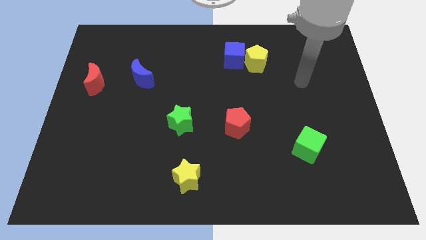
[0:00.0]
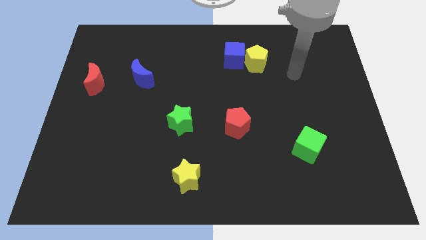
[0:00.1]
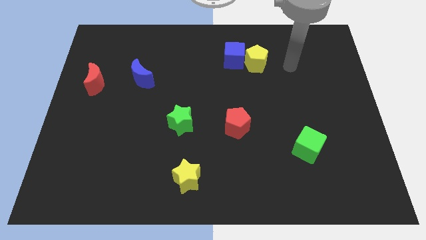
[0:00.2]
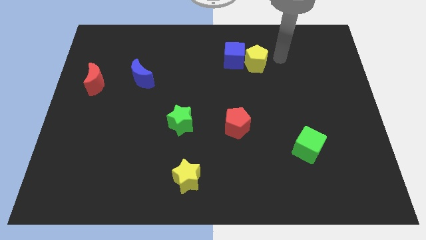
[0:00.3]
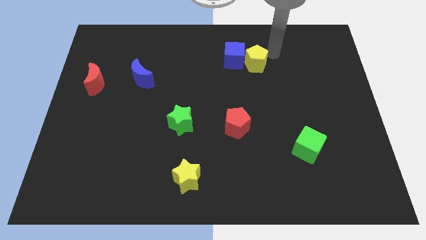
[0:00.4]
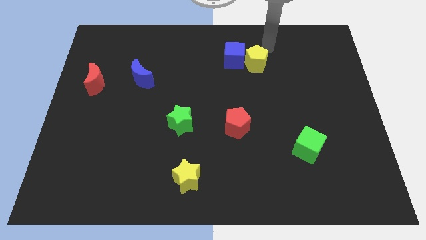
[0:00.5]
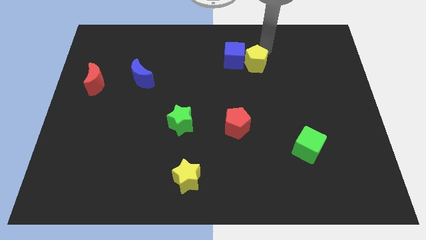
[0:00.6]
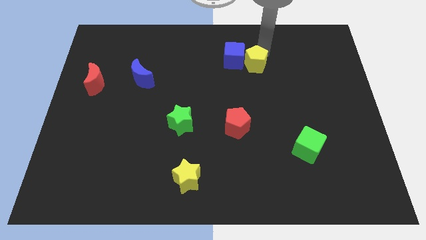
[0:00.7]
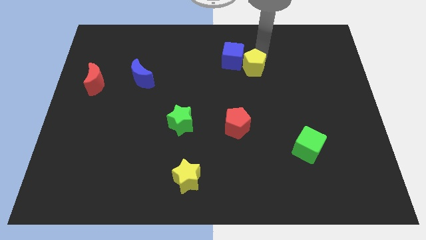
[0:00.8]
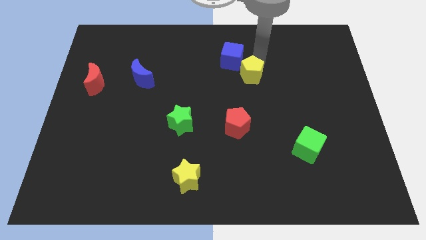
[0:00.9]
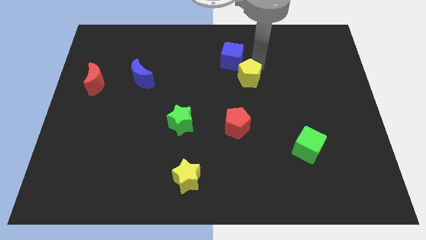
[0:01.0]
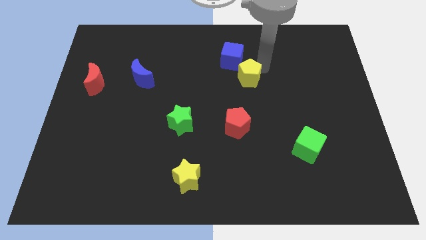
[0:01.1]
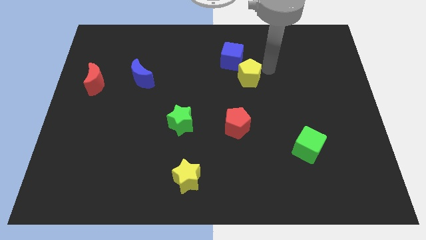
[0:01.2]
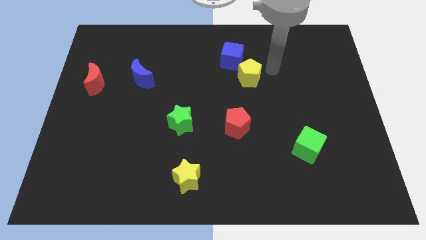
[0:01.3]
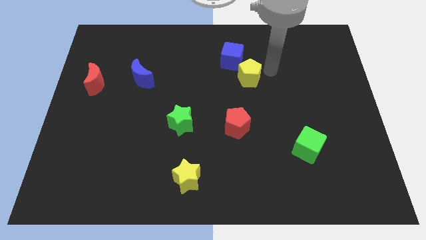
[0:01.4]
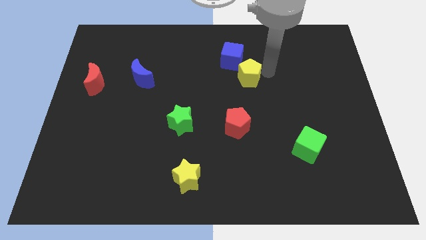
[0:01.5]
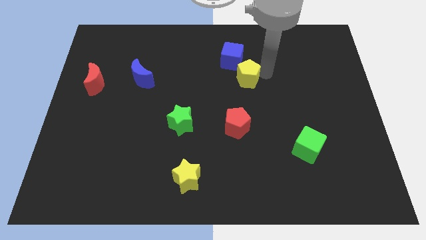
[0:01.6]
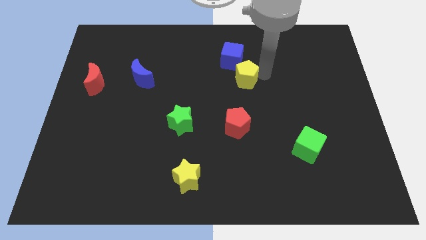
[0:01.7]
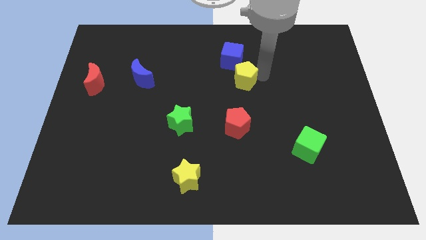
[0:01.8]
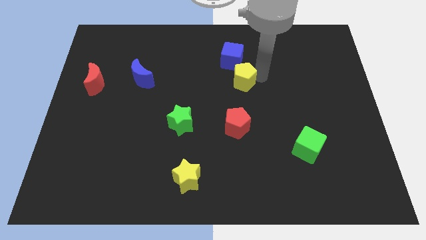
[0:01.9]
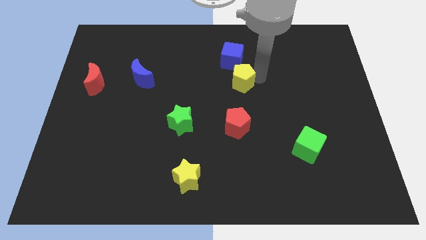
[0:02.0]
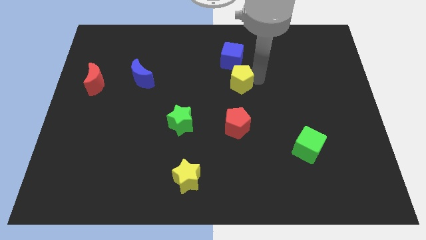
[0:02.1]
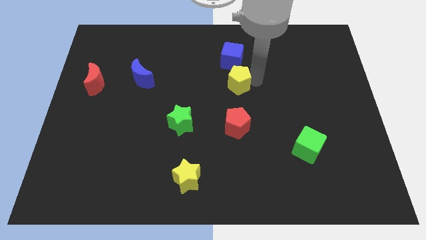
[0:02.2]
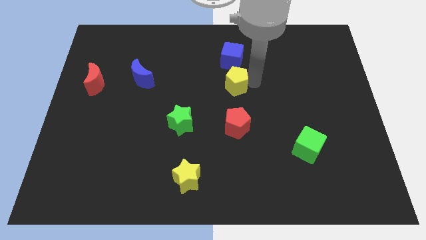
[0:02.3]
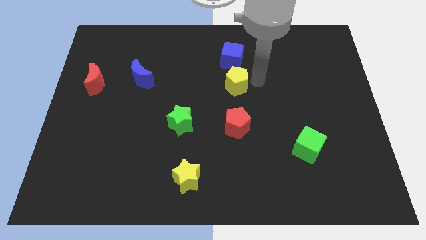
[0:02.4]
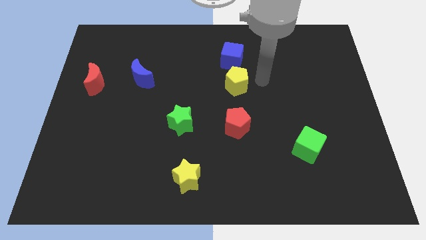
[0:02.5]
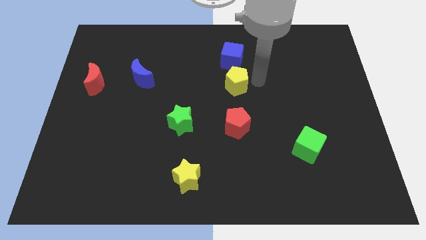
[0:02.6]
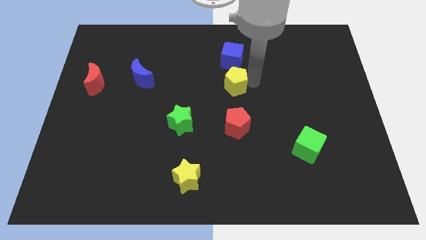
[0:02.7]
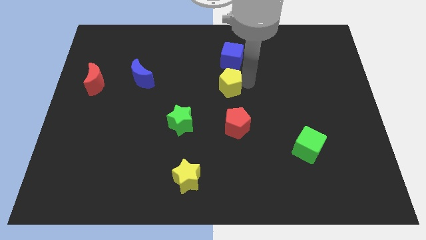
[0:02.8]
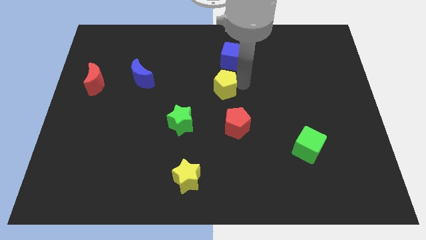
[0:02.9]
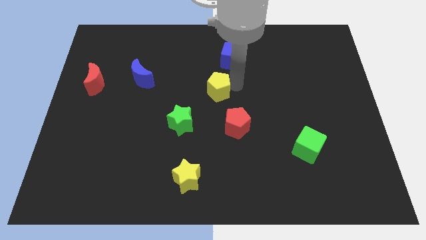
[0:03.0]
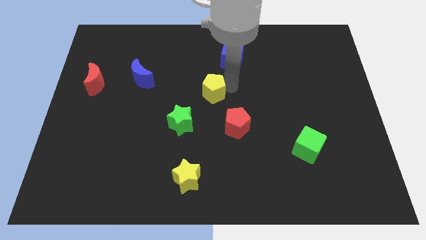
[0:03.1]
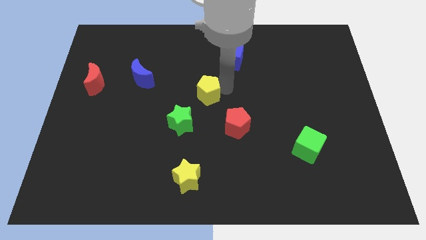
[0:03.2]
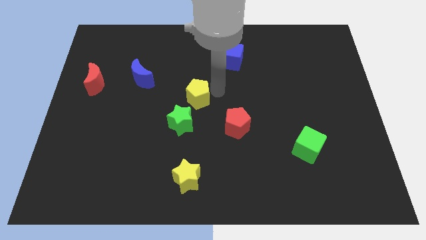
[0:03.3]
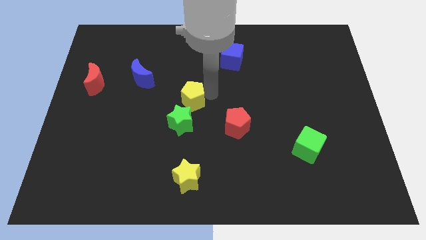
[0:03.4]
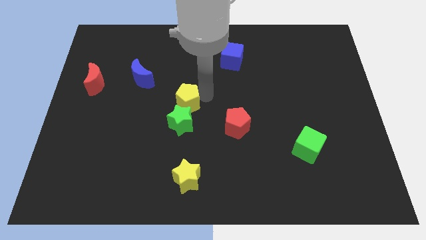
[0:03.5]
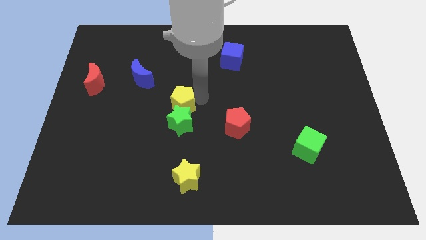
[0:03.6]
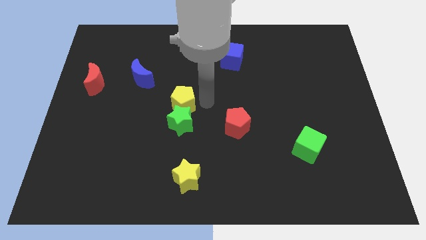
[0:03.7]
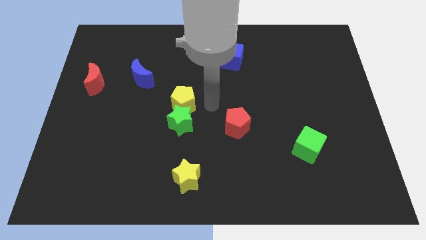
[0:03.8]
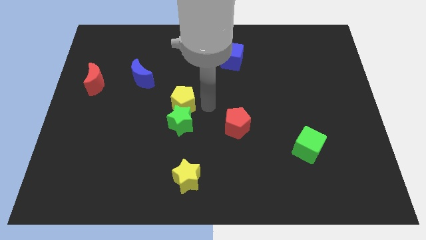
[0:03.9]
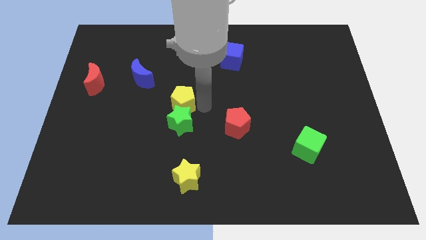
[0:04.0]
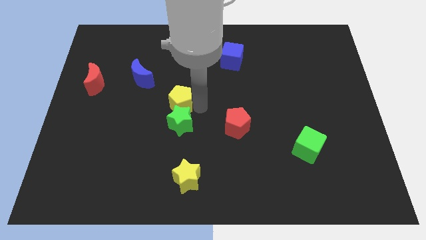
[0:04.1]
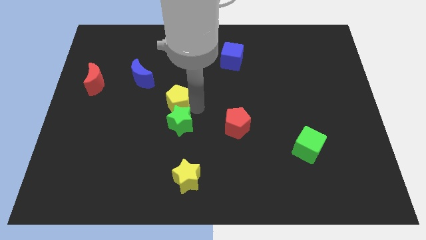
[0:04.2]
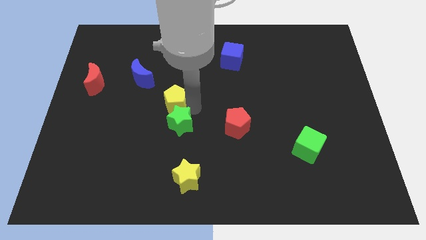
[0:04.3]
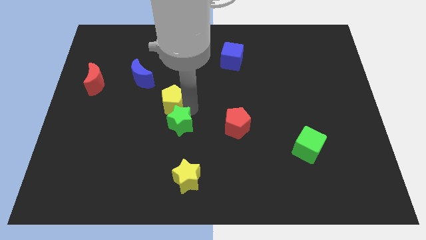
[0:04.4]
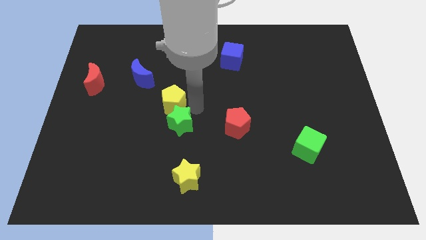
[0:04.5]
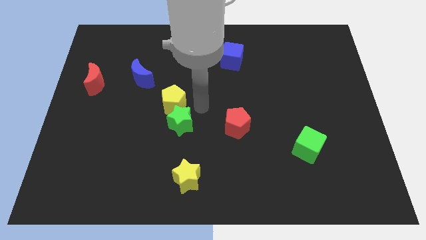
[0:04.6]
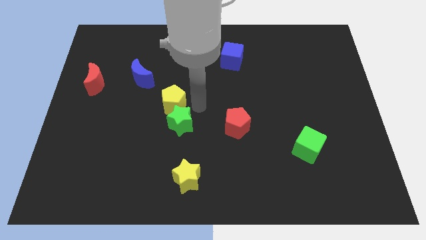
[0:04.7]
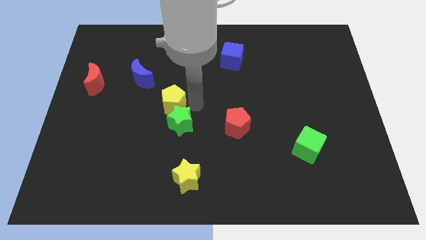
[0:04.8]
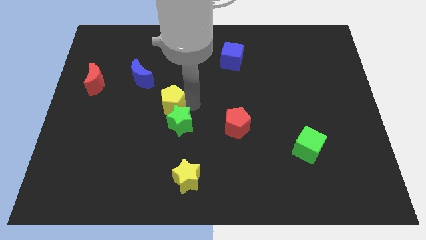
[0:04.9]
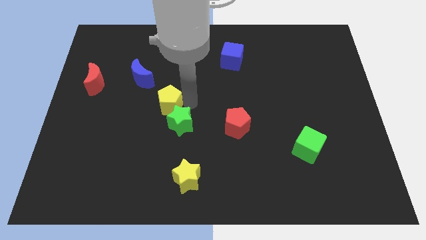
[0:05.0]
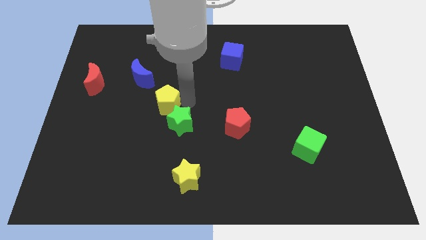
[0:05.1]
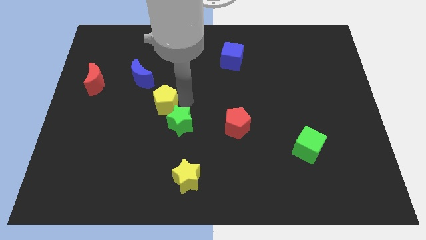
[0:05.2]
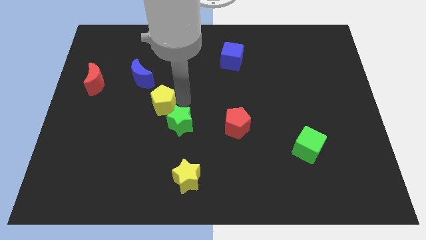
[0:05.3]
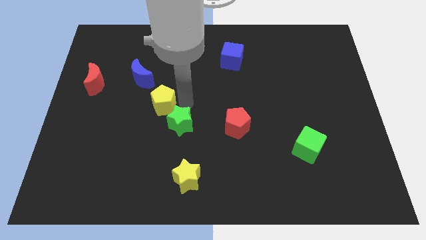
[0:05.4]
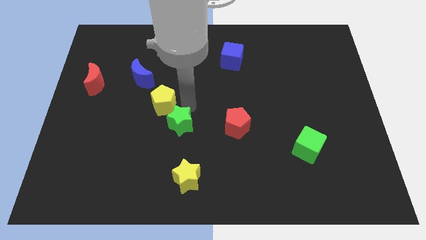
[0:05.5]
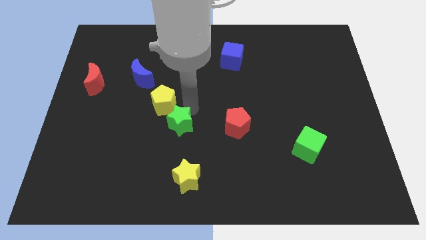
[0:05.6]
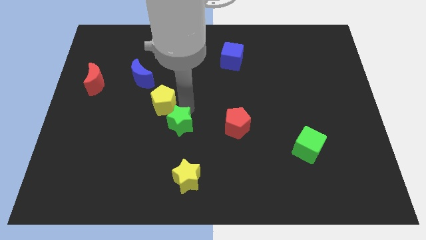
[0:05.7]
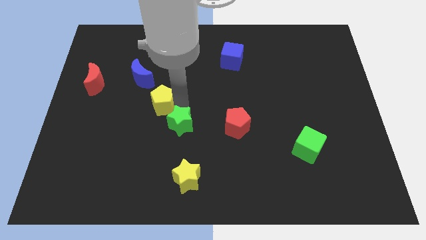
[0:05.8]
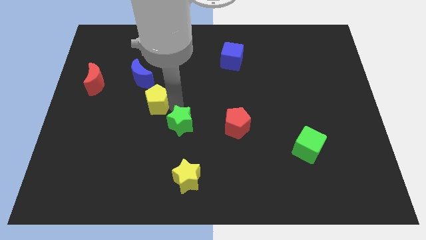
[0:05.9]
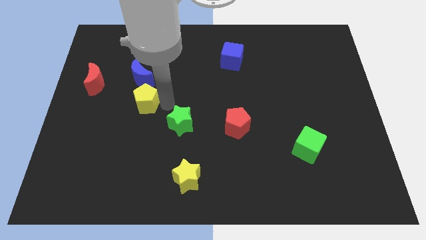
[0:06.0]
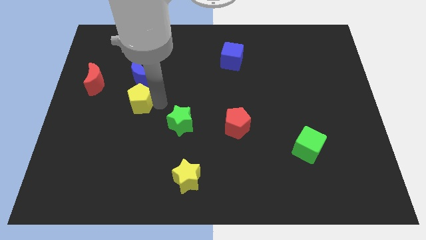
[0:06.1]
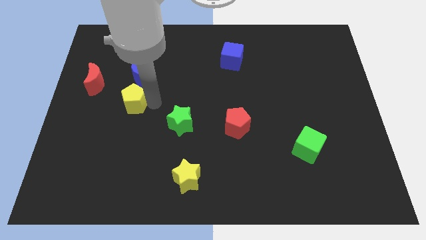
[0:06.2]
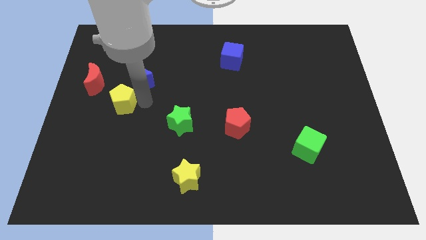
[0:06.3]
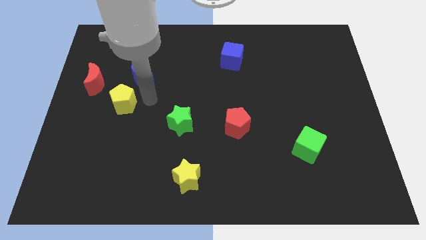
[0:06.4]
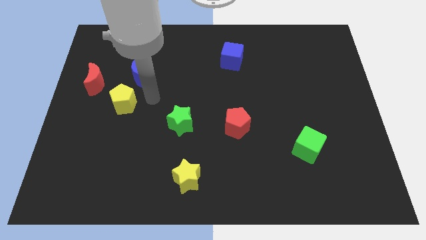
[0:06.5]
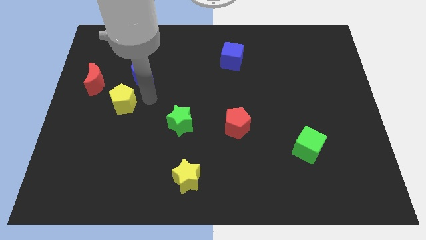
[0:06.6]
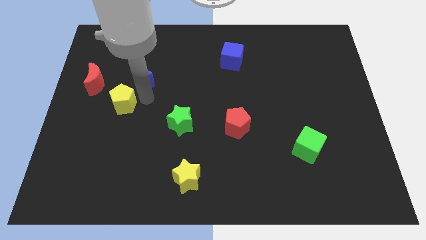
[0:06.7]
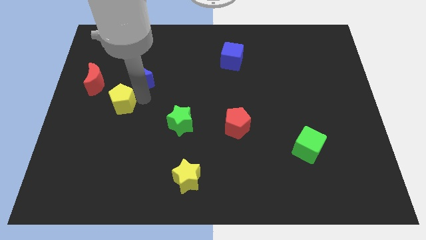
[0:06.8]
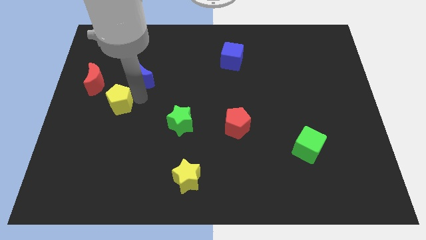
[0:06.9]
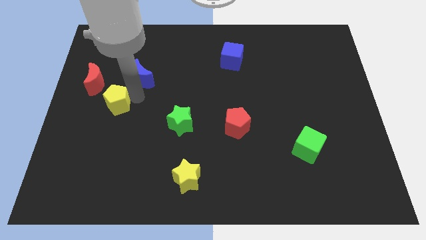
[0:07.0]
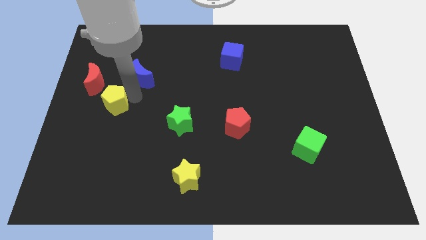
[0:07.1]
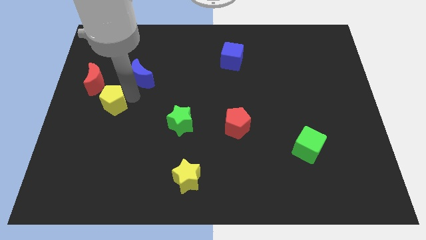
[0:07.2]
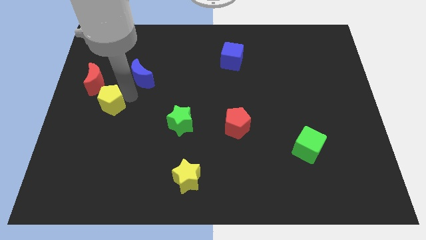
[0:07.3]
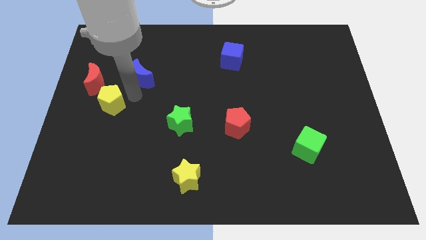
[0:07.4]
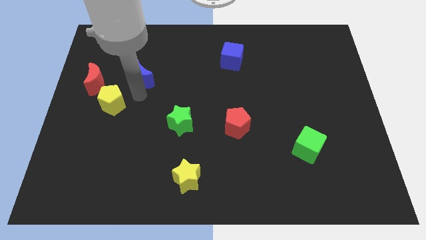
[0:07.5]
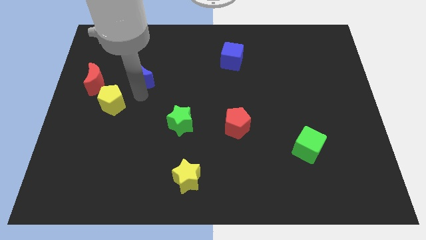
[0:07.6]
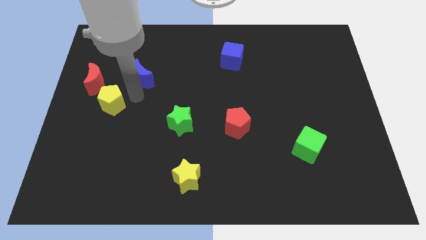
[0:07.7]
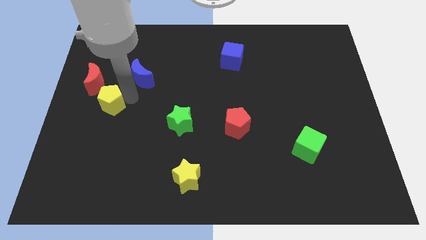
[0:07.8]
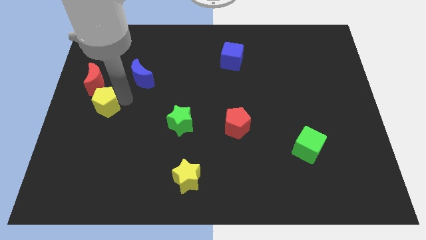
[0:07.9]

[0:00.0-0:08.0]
slide the yellow pentagon to the center left
